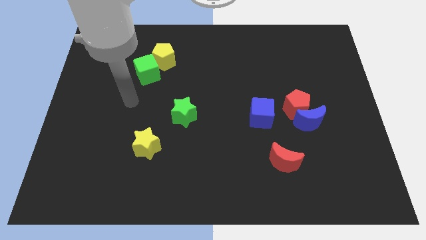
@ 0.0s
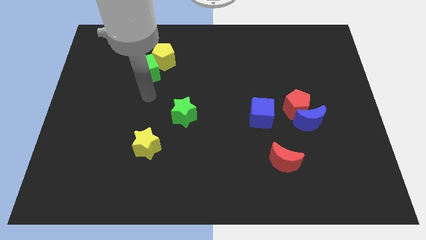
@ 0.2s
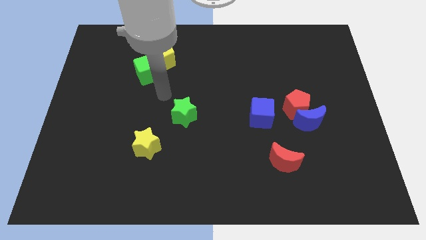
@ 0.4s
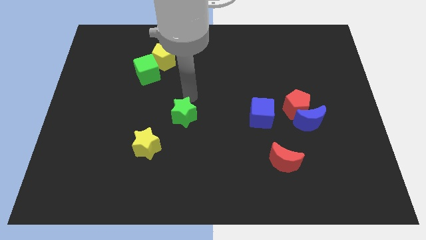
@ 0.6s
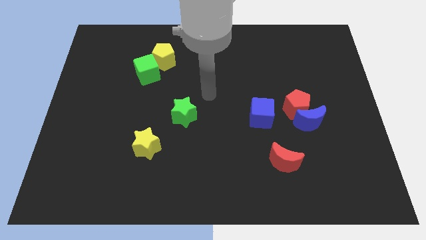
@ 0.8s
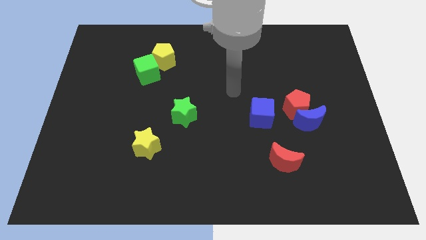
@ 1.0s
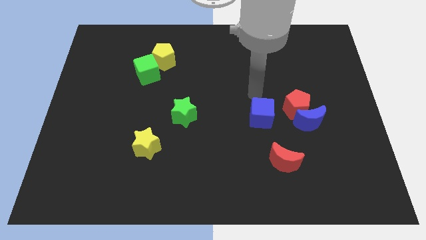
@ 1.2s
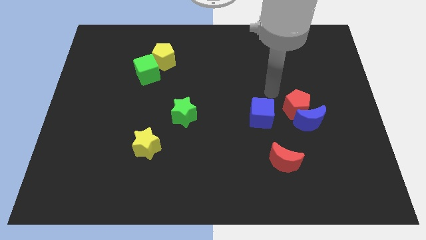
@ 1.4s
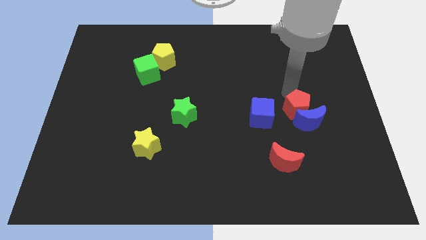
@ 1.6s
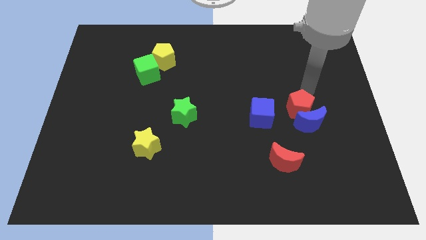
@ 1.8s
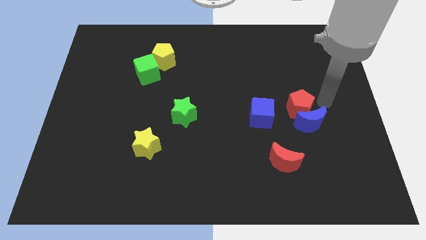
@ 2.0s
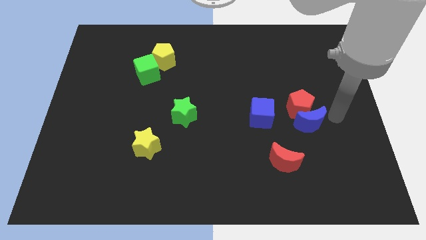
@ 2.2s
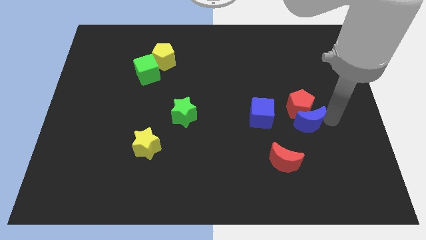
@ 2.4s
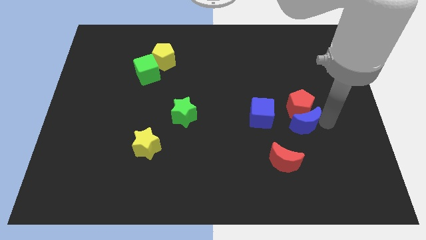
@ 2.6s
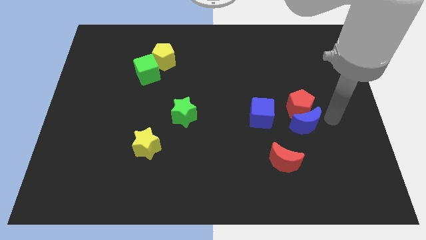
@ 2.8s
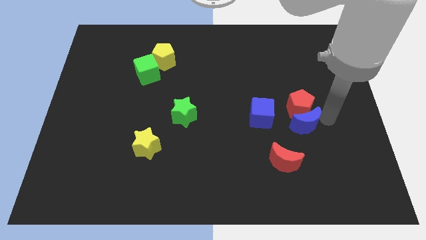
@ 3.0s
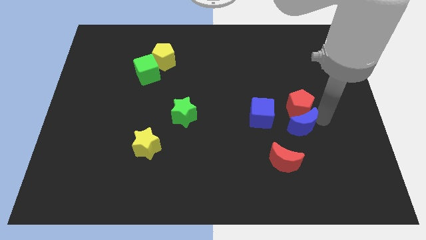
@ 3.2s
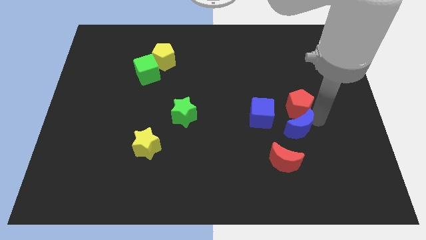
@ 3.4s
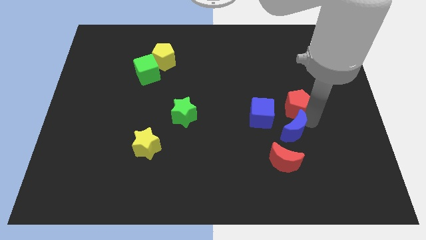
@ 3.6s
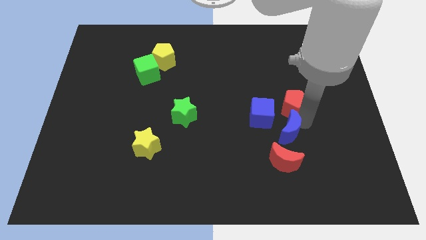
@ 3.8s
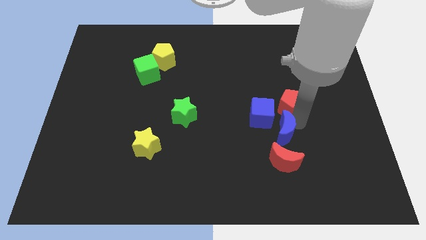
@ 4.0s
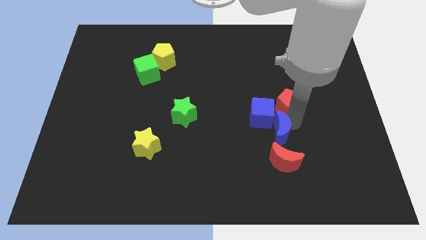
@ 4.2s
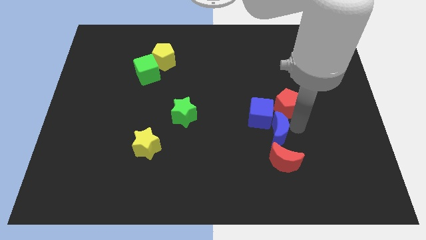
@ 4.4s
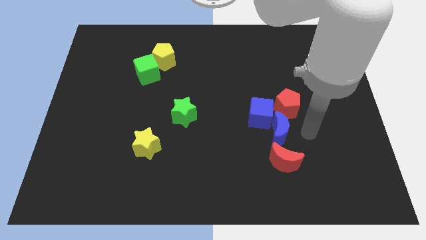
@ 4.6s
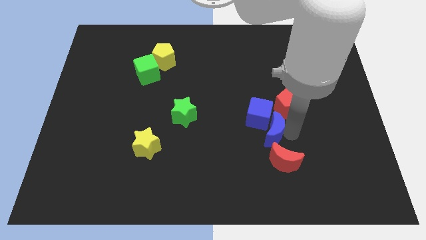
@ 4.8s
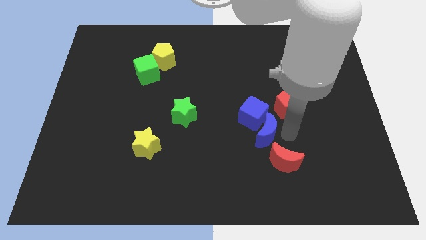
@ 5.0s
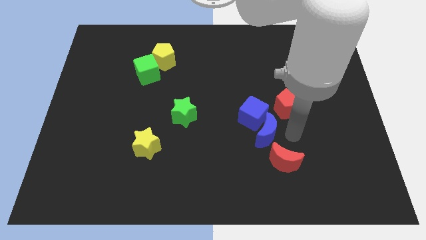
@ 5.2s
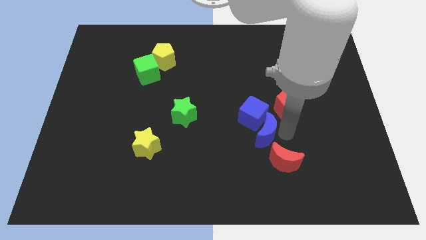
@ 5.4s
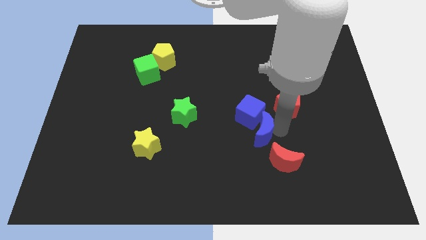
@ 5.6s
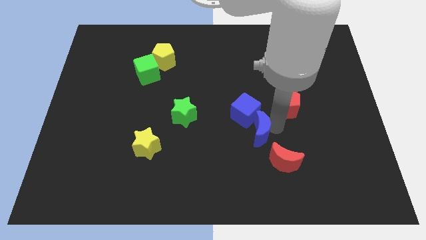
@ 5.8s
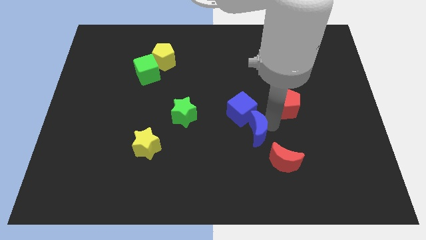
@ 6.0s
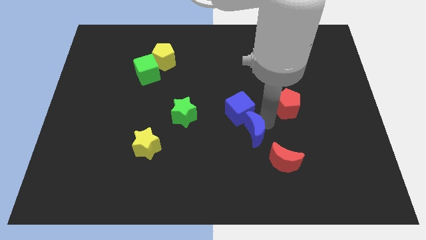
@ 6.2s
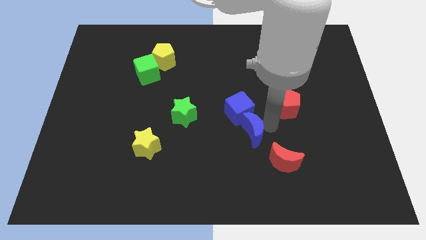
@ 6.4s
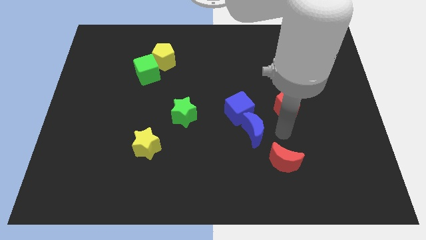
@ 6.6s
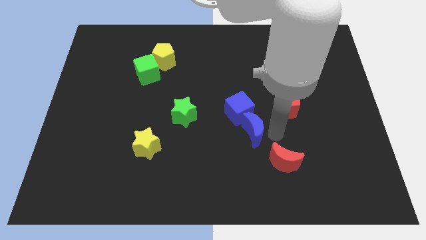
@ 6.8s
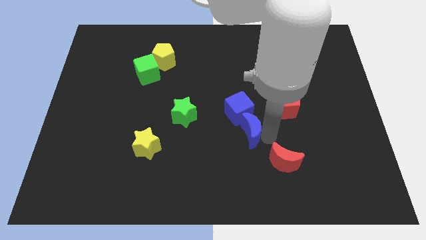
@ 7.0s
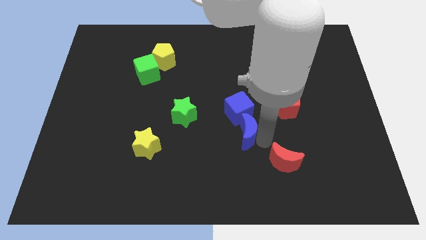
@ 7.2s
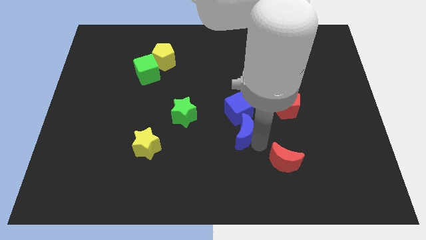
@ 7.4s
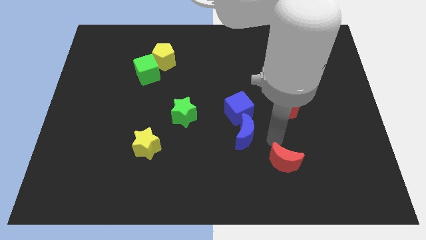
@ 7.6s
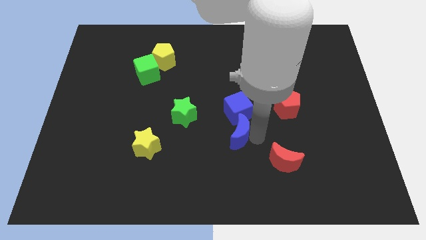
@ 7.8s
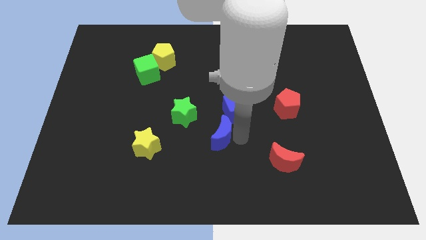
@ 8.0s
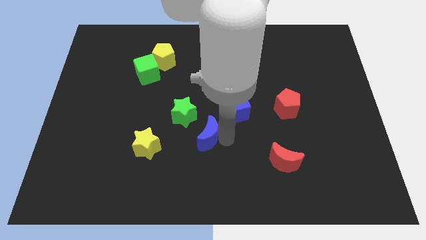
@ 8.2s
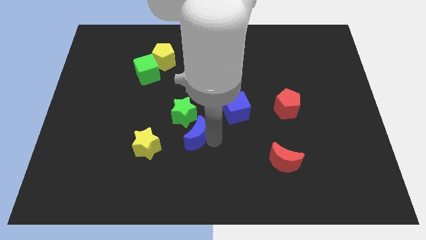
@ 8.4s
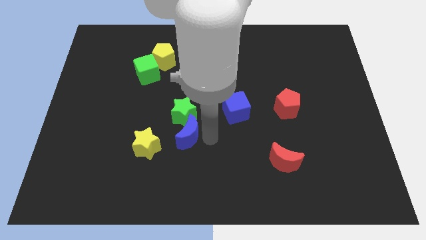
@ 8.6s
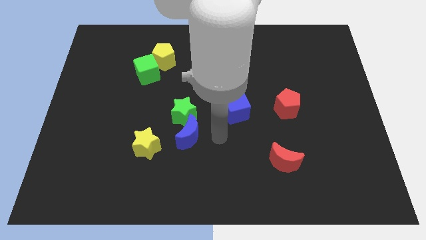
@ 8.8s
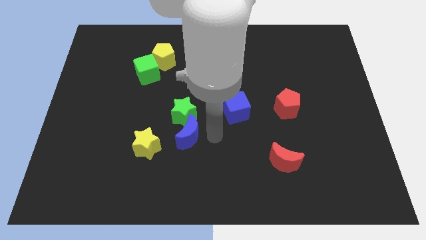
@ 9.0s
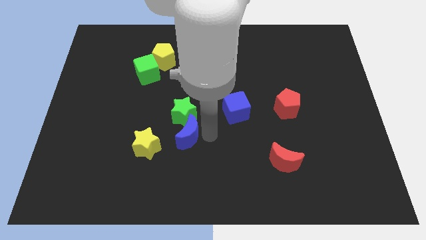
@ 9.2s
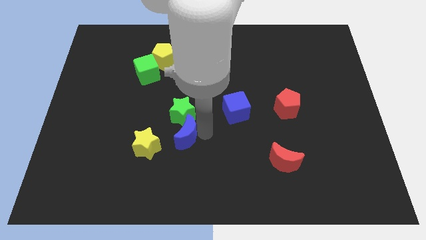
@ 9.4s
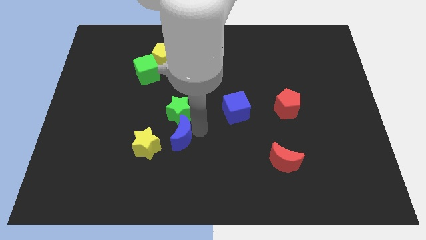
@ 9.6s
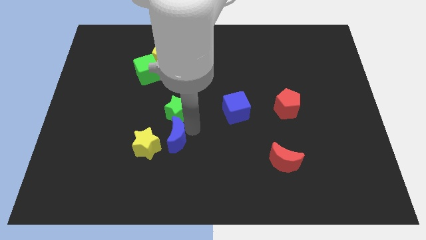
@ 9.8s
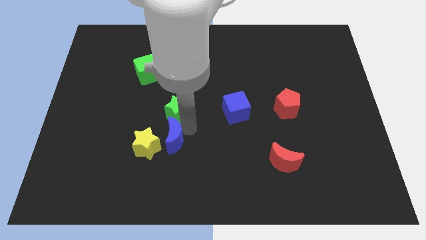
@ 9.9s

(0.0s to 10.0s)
push the blue moon close to the yellow star

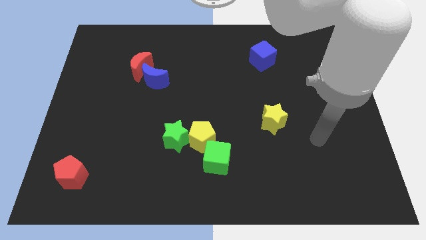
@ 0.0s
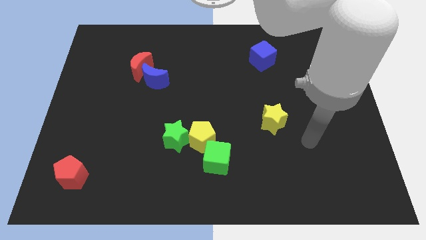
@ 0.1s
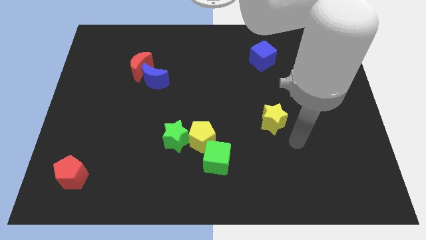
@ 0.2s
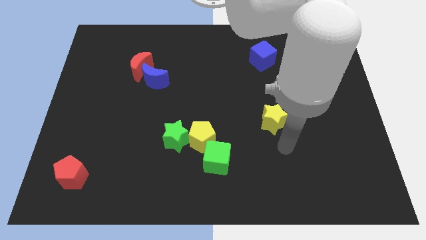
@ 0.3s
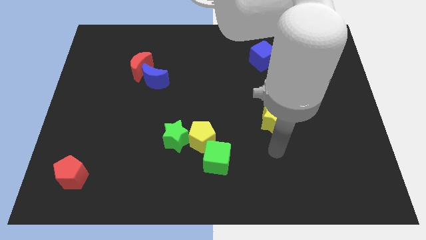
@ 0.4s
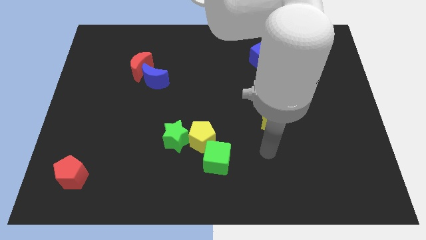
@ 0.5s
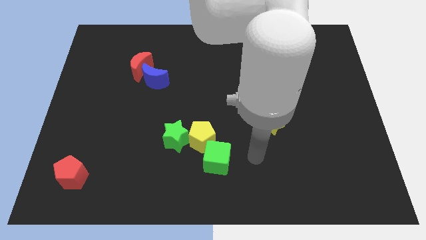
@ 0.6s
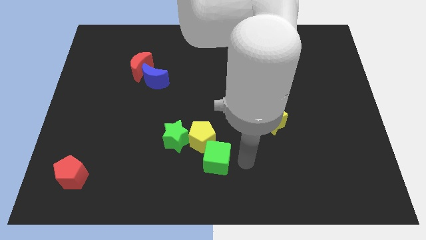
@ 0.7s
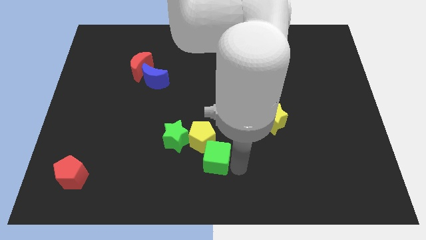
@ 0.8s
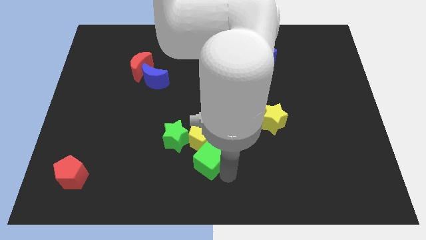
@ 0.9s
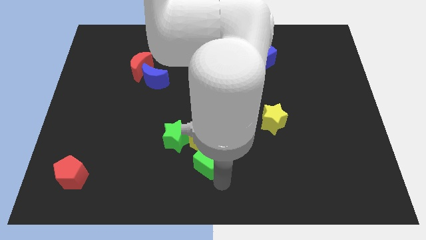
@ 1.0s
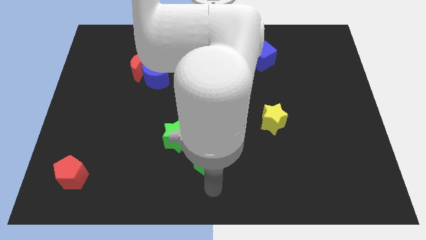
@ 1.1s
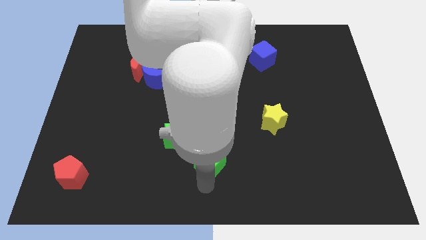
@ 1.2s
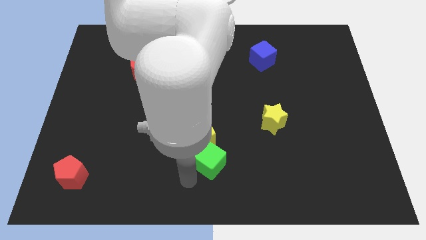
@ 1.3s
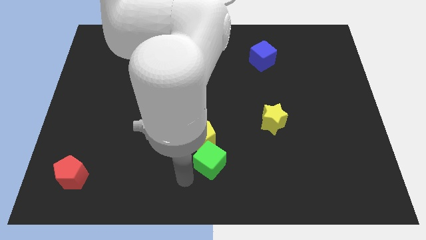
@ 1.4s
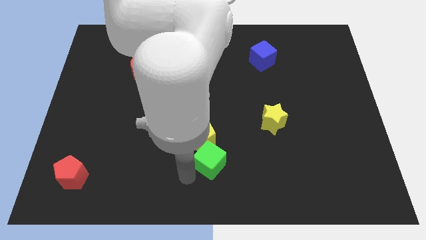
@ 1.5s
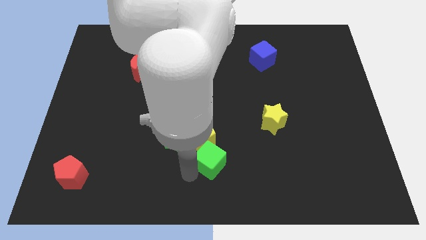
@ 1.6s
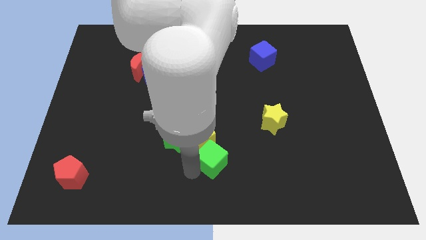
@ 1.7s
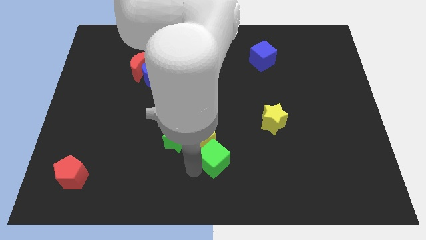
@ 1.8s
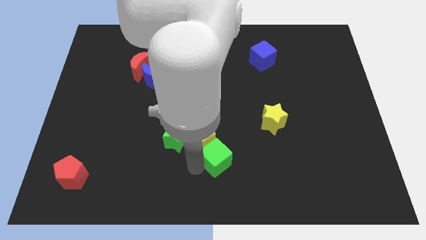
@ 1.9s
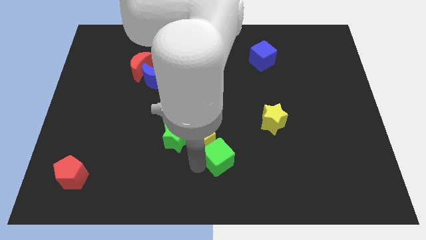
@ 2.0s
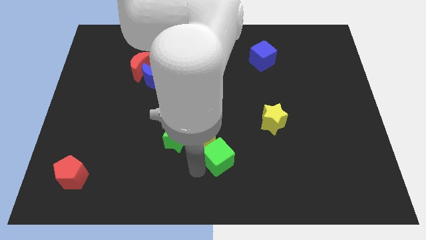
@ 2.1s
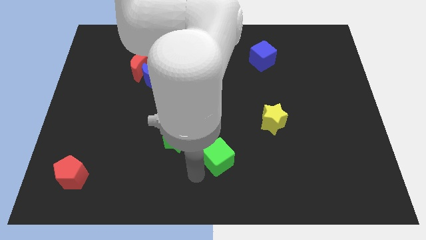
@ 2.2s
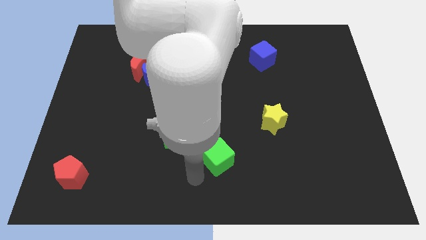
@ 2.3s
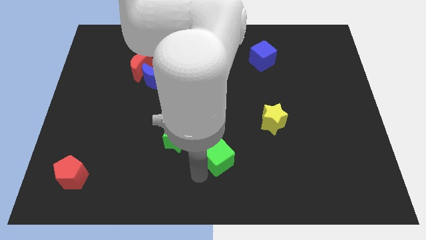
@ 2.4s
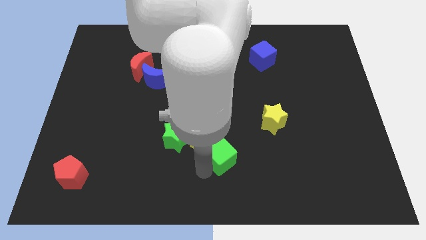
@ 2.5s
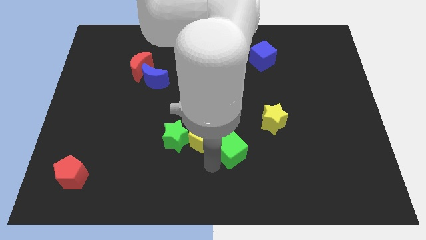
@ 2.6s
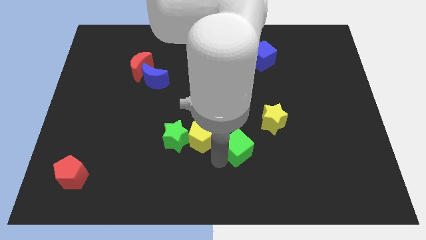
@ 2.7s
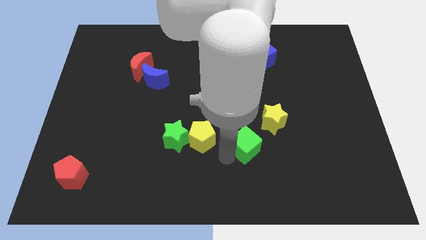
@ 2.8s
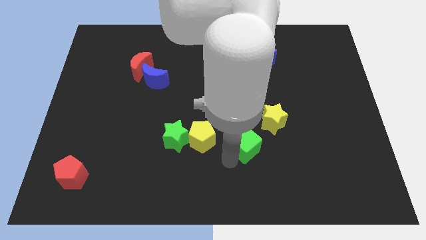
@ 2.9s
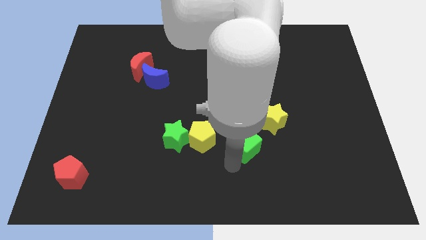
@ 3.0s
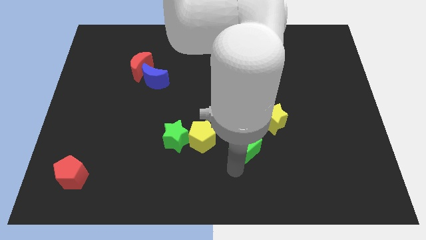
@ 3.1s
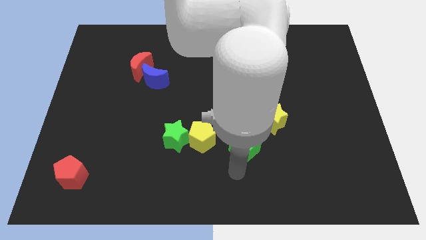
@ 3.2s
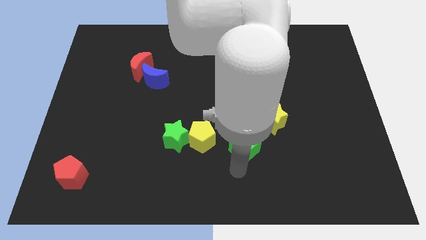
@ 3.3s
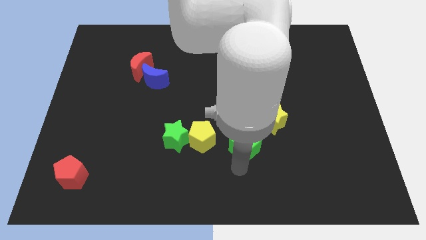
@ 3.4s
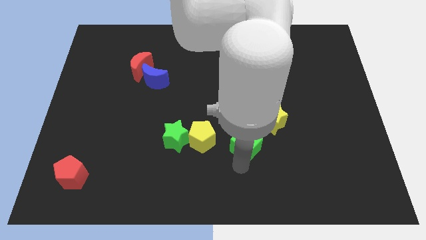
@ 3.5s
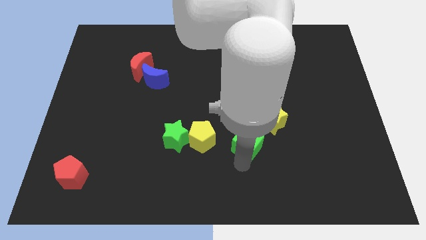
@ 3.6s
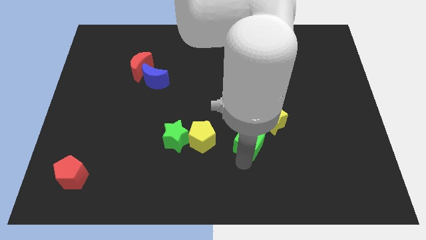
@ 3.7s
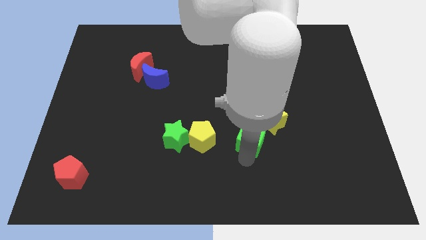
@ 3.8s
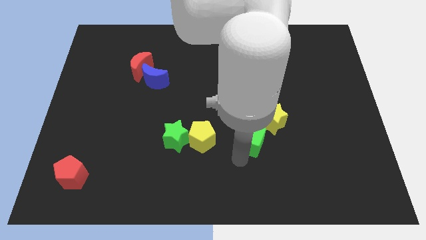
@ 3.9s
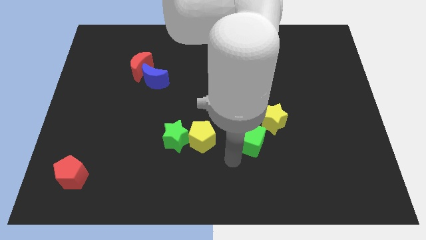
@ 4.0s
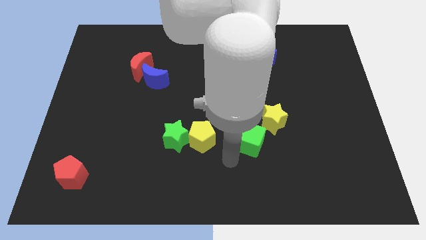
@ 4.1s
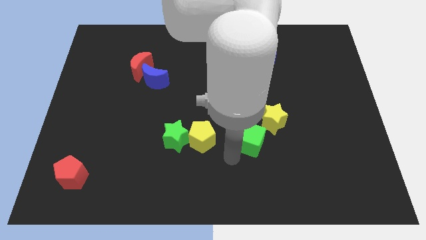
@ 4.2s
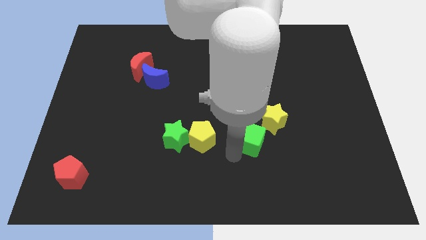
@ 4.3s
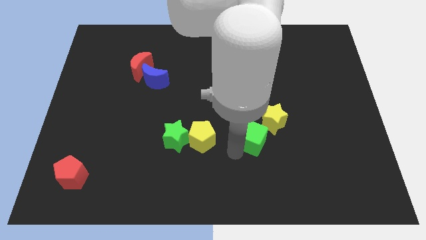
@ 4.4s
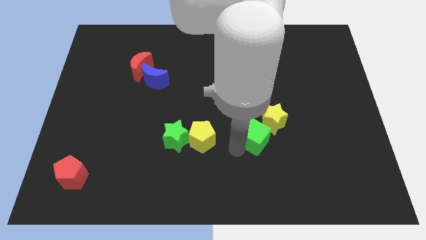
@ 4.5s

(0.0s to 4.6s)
move the green cube towards the yellow star
